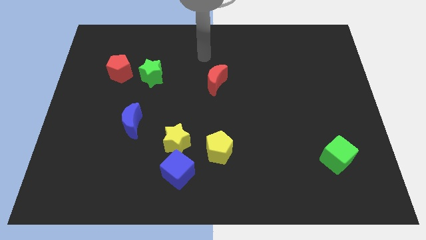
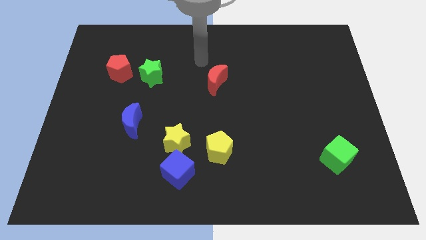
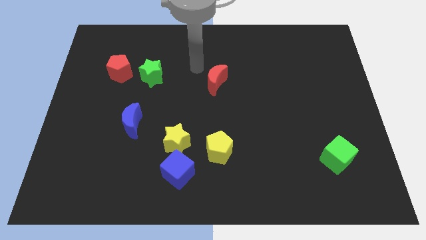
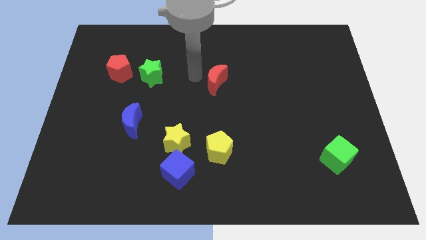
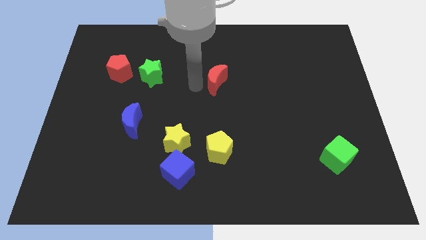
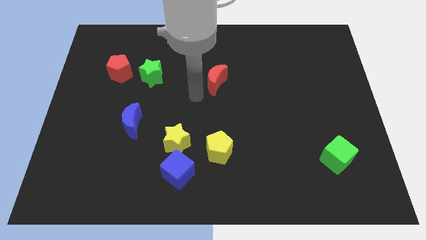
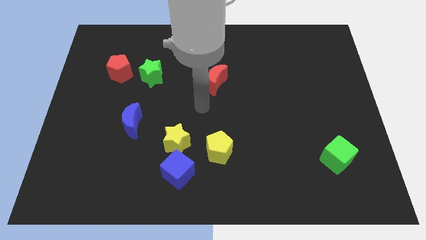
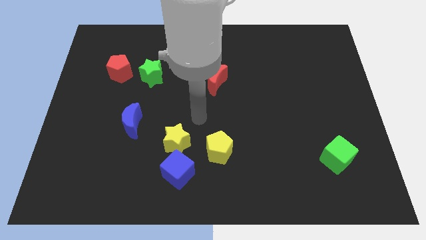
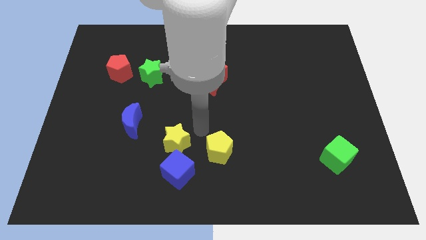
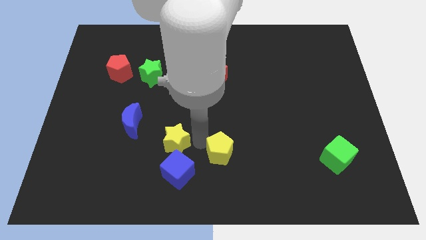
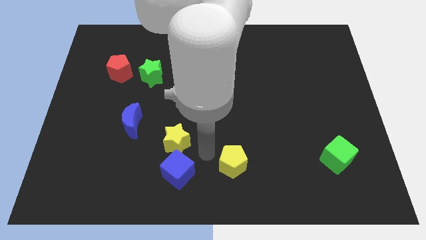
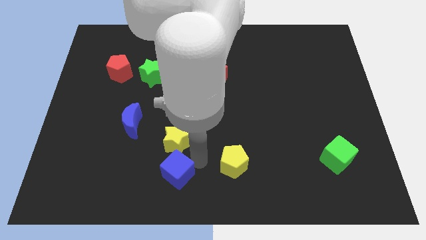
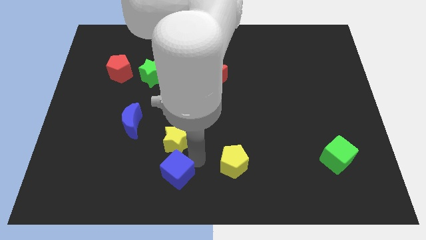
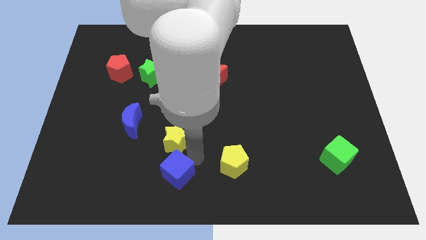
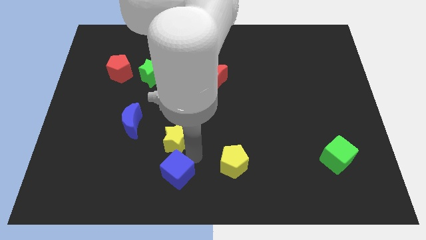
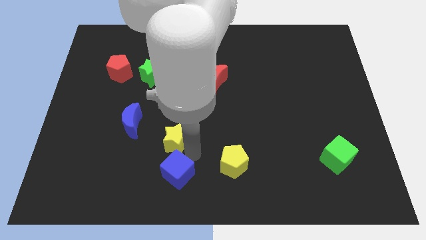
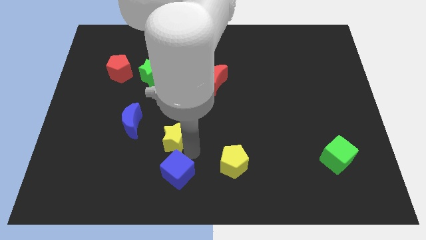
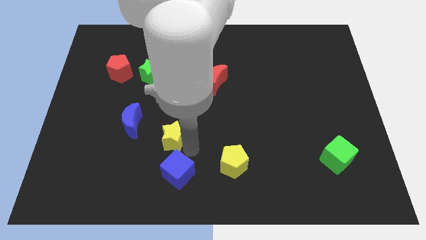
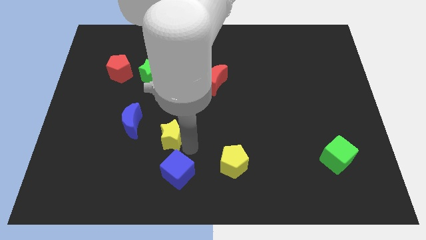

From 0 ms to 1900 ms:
separate the yellow star from the blue cube and yellow pentagon

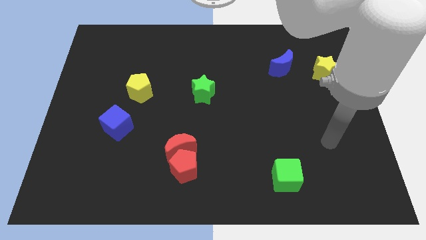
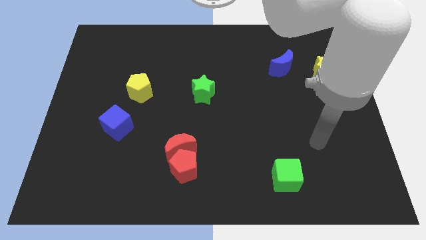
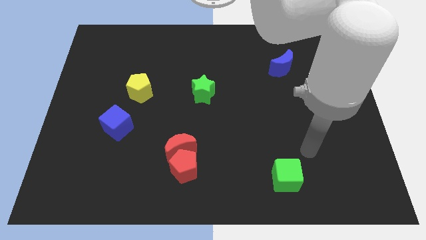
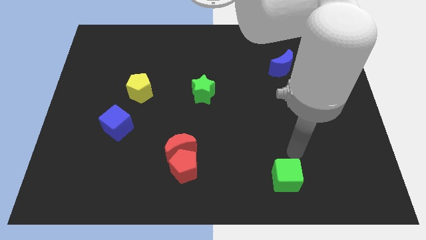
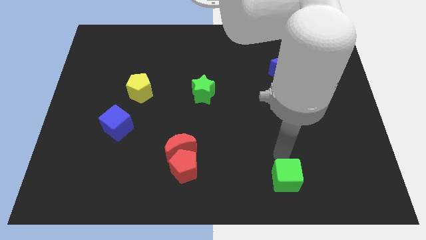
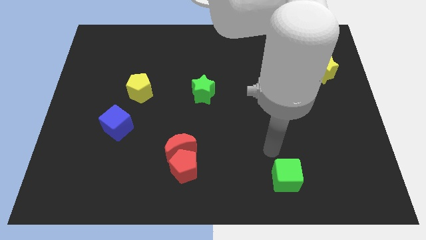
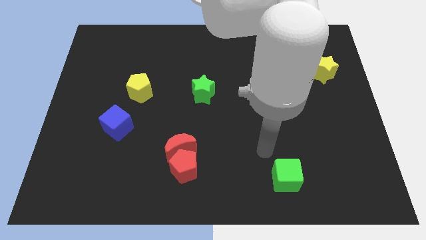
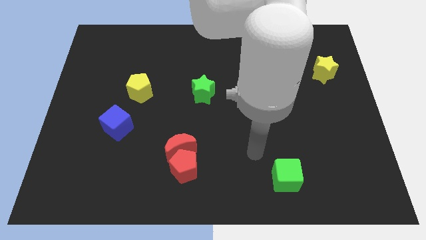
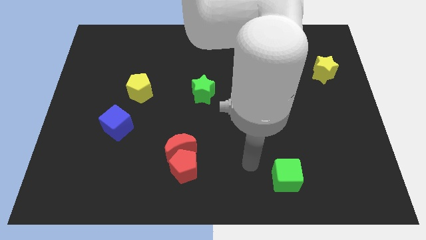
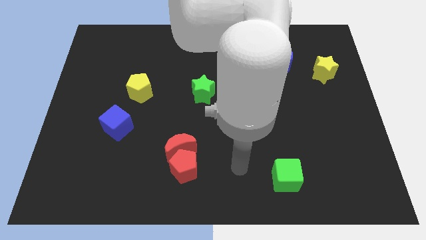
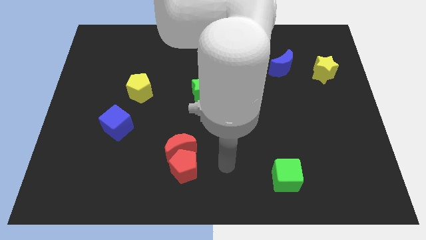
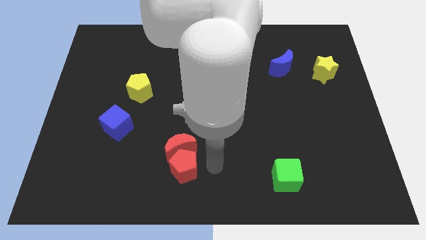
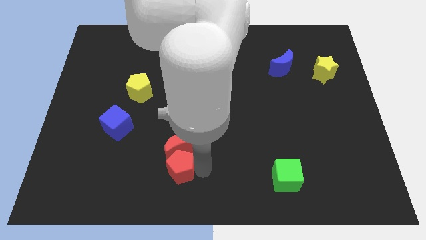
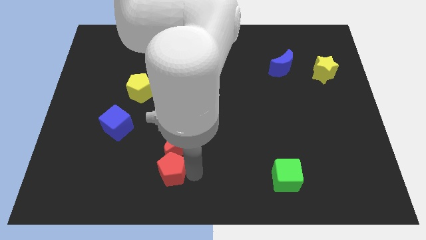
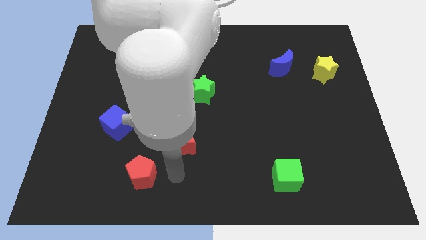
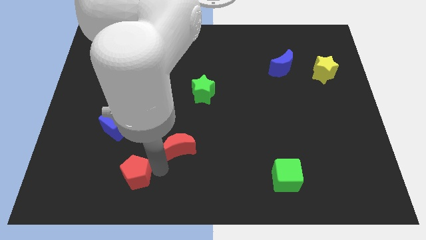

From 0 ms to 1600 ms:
pull the red moon apart from the red pentagon

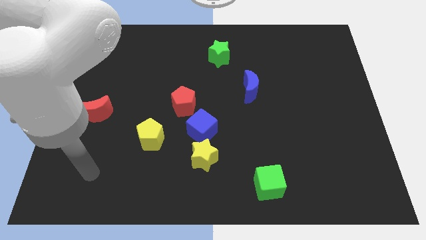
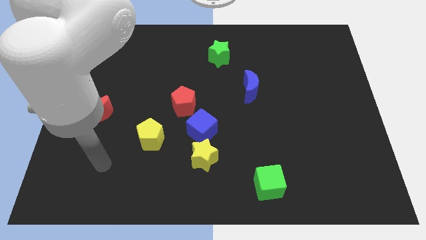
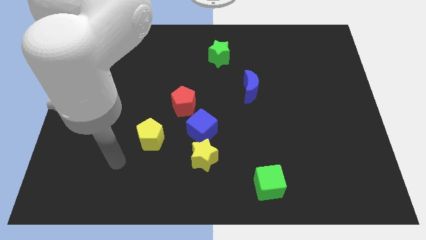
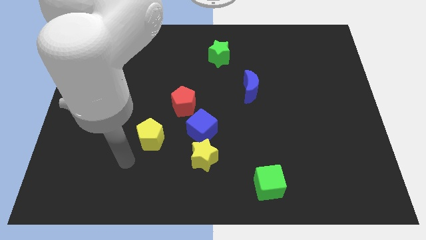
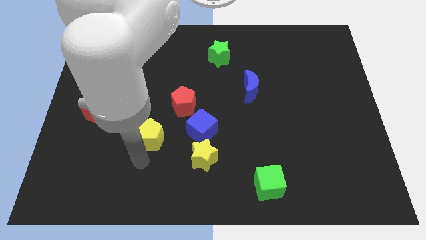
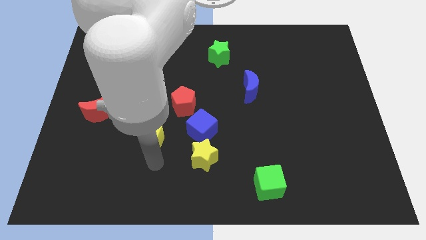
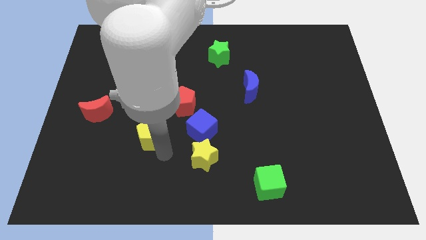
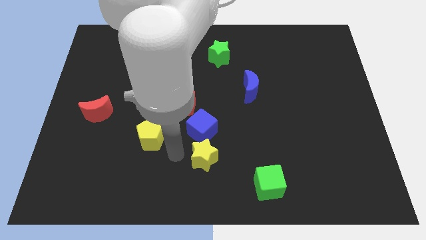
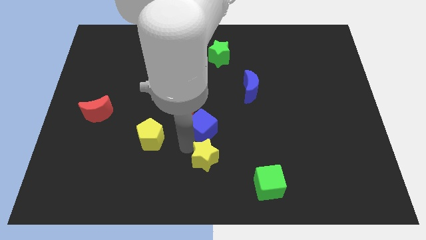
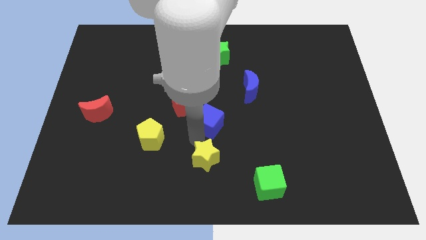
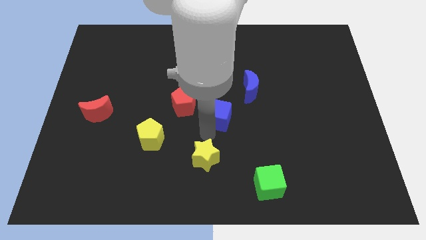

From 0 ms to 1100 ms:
move the yellow star away from the blue cube

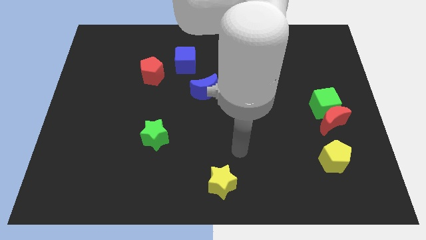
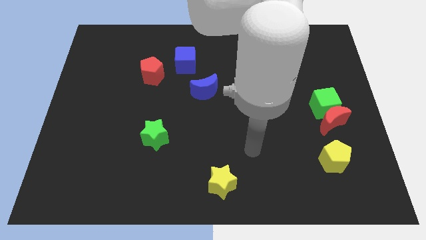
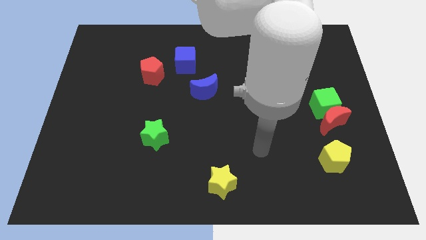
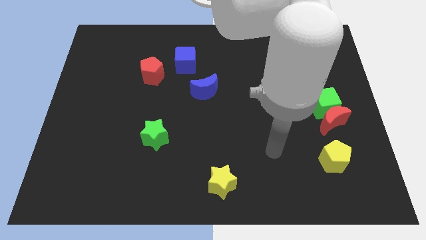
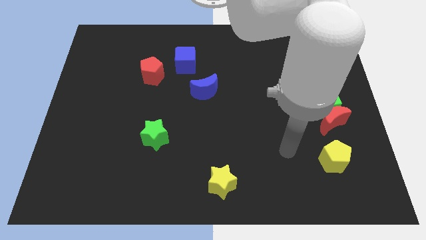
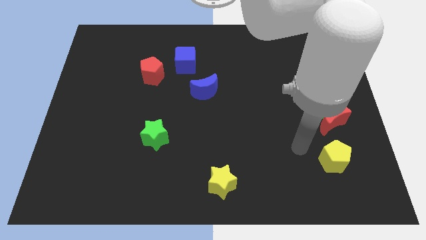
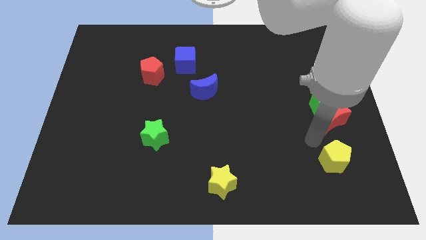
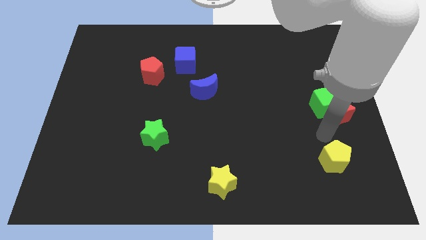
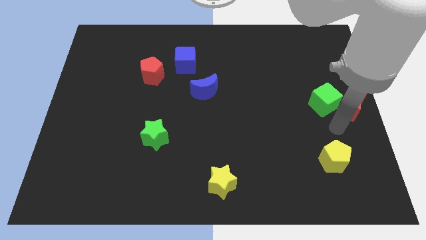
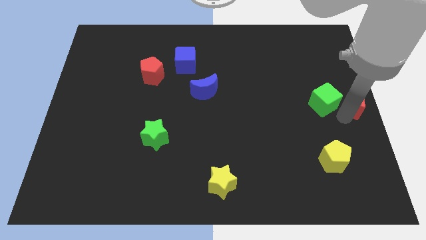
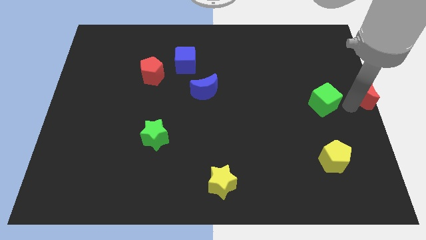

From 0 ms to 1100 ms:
separate the green cube from the red moon

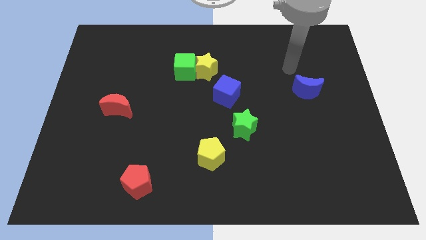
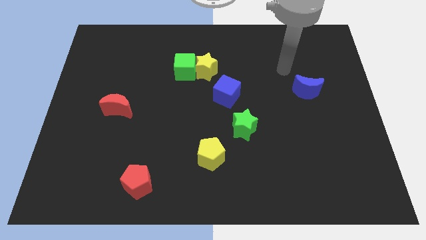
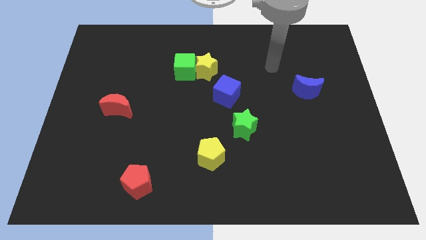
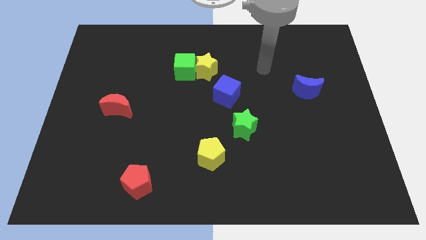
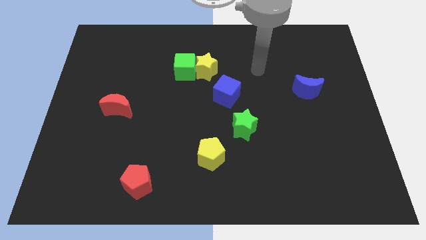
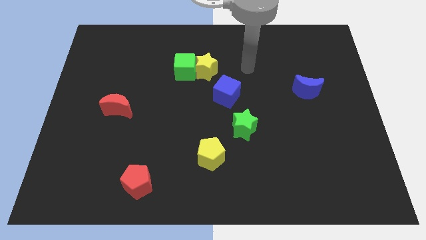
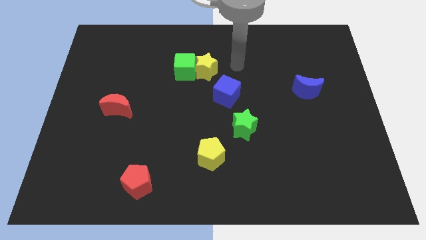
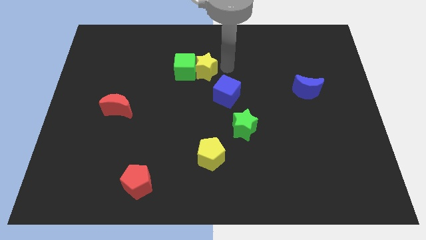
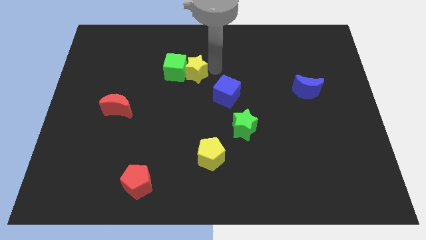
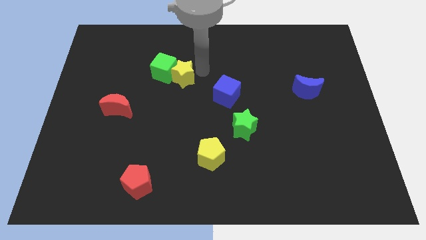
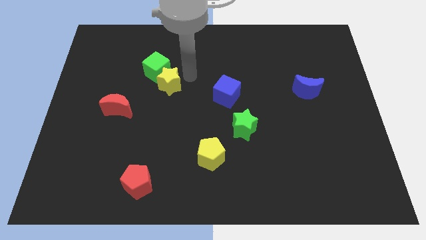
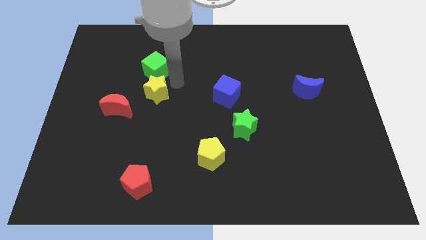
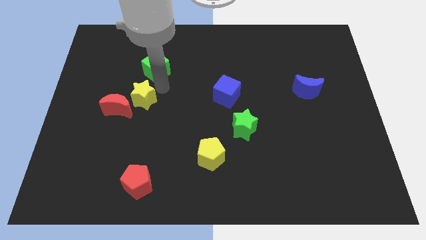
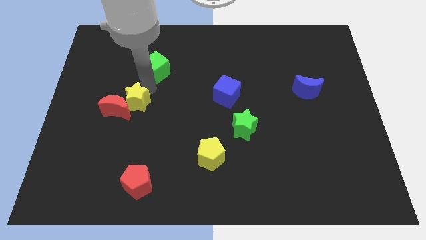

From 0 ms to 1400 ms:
pull the green cube apart from the yellow star

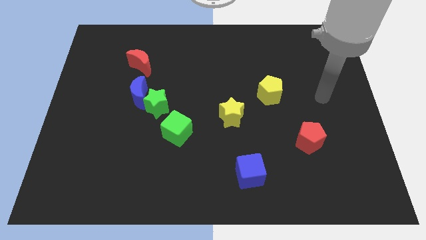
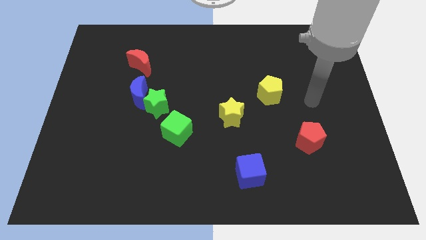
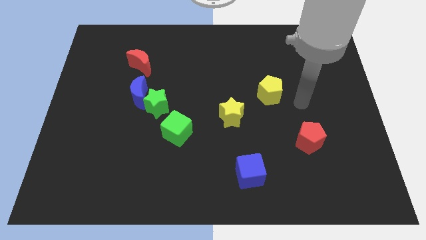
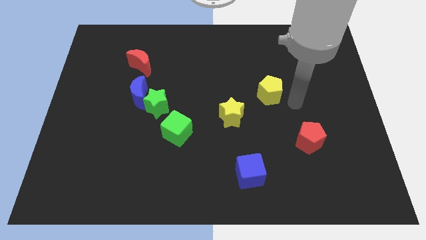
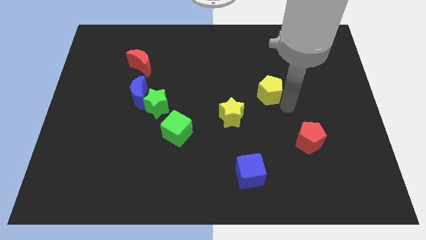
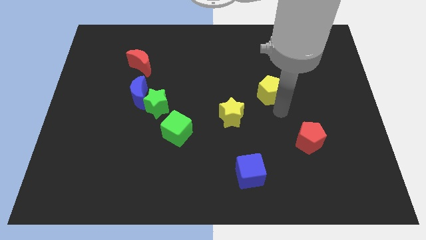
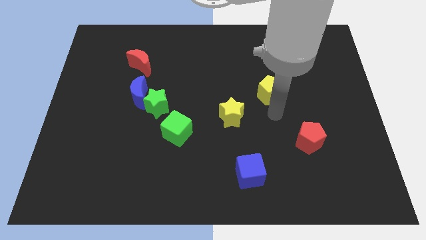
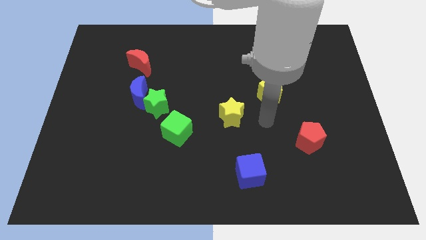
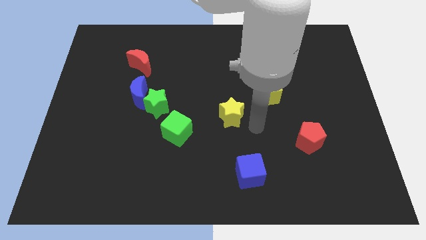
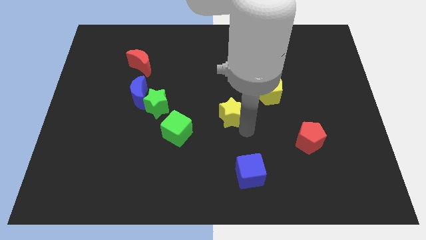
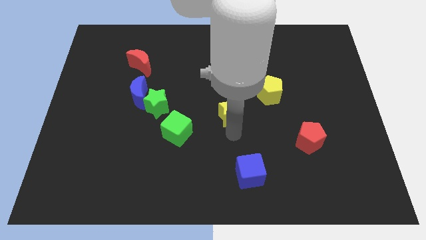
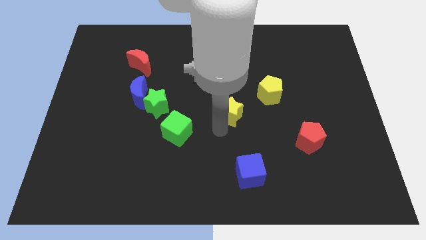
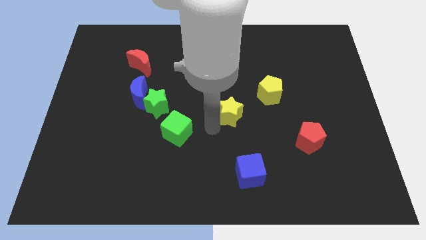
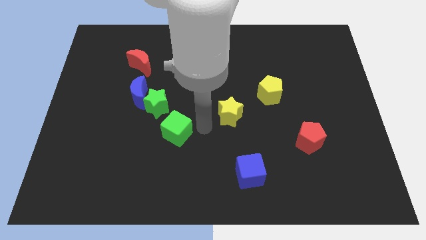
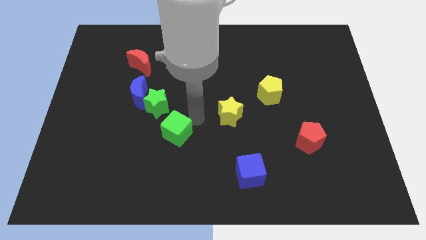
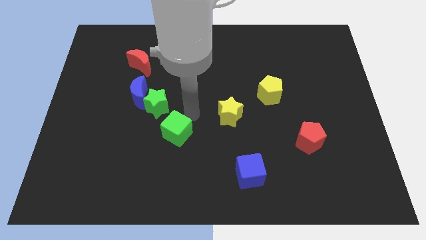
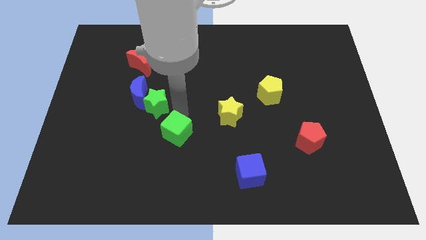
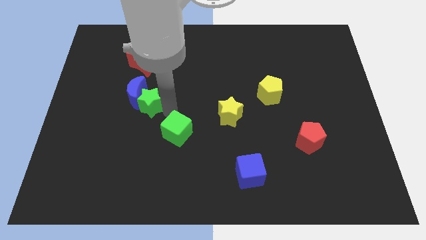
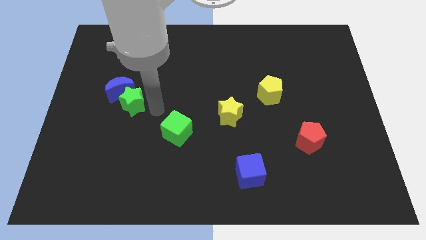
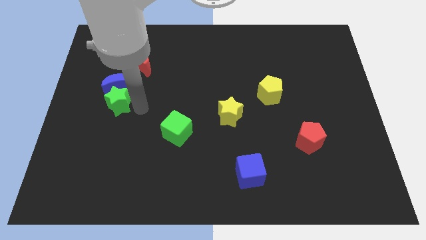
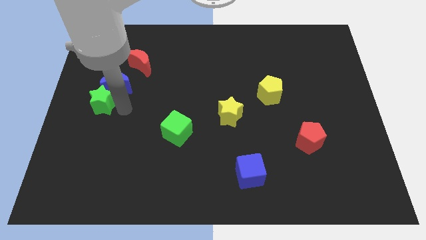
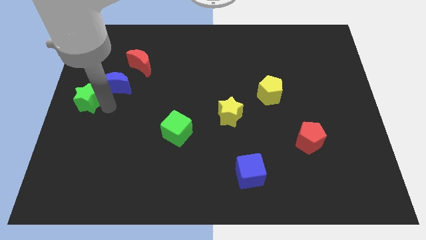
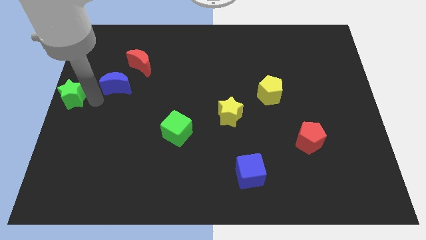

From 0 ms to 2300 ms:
pull the blue moon apart from the green star

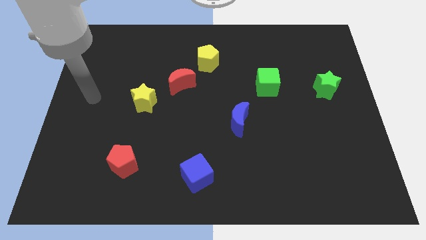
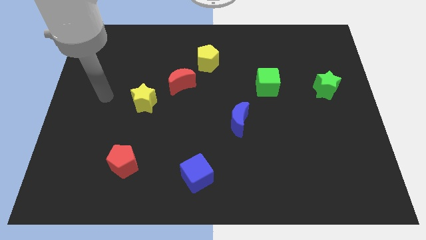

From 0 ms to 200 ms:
pull the red moon apart from the yellow pentagon
